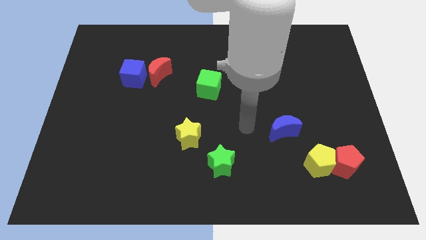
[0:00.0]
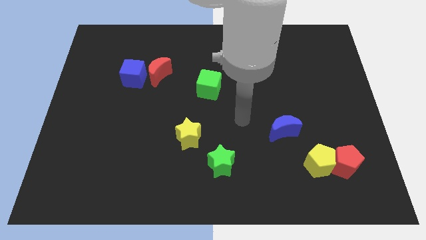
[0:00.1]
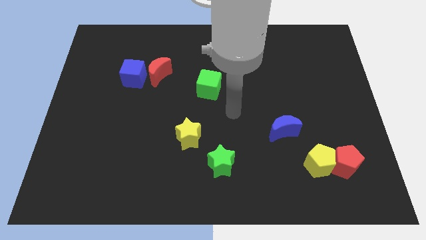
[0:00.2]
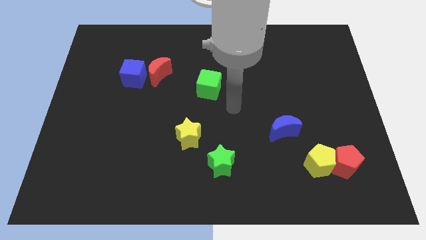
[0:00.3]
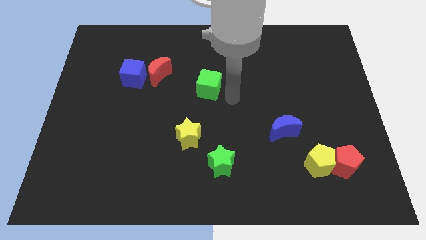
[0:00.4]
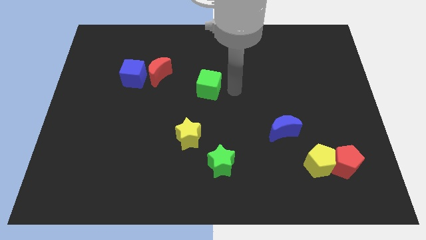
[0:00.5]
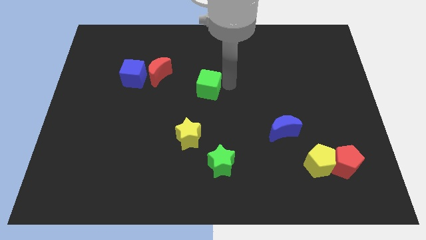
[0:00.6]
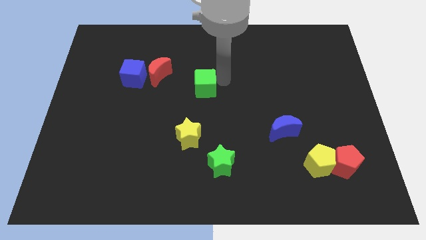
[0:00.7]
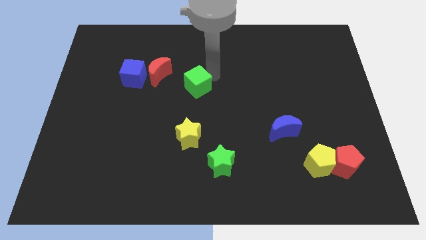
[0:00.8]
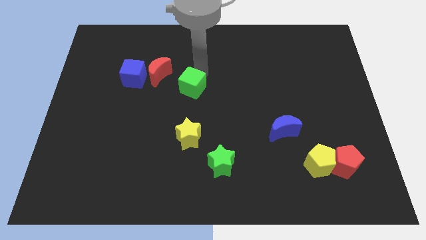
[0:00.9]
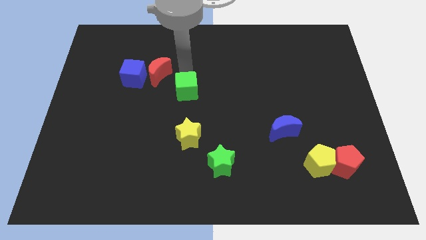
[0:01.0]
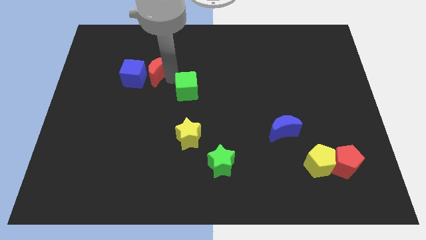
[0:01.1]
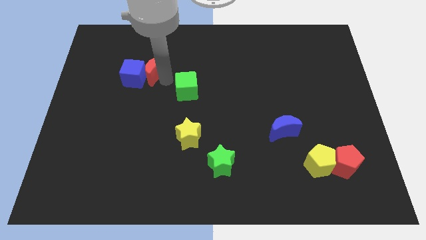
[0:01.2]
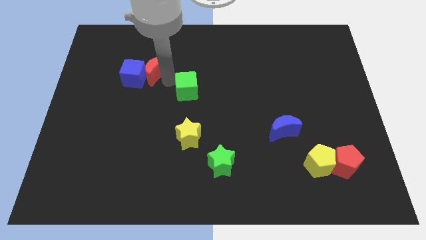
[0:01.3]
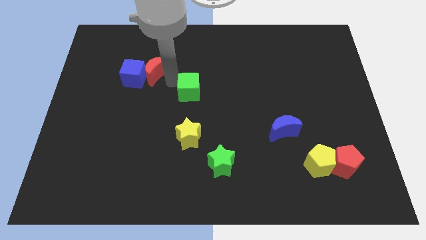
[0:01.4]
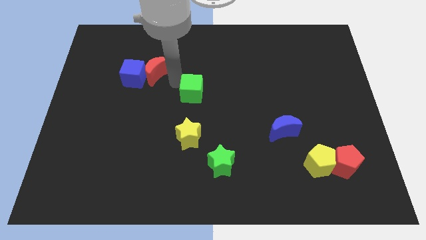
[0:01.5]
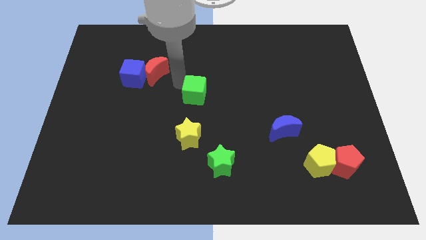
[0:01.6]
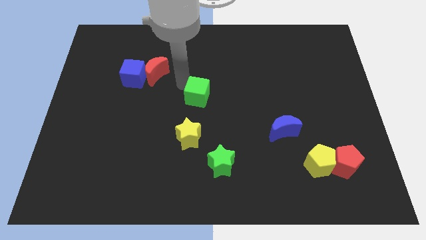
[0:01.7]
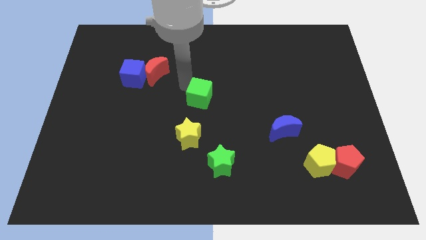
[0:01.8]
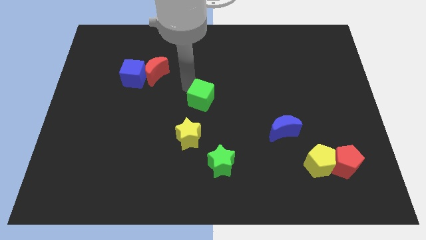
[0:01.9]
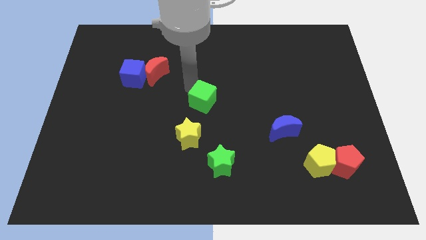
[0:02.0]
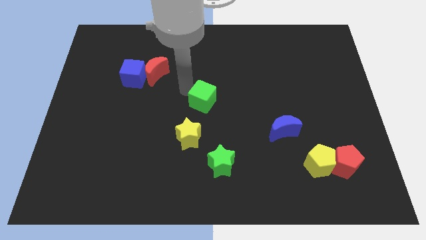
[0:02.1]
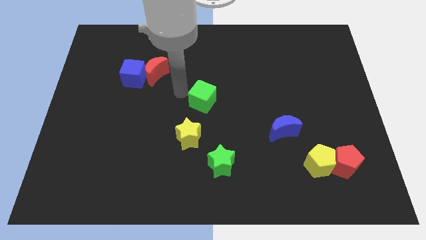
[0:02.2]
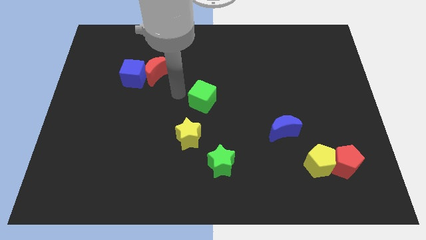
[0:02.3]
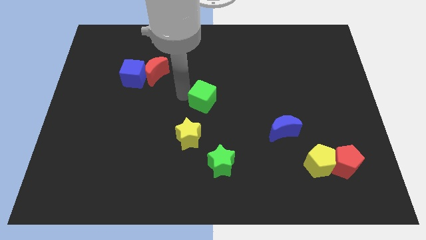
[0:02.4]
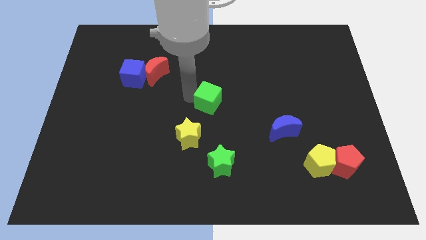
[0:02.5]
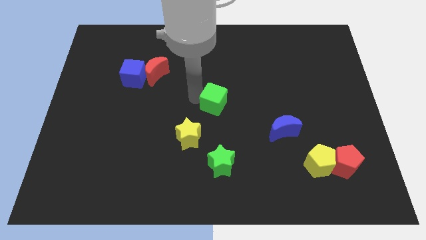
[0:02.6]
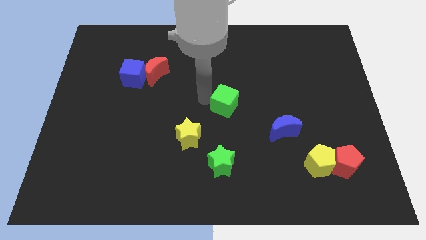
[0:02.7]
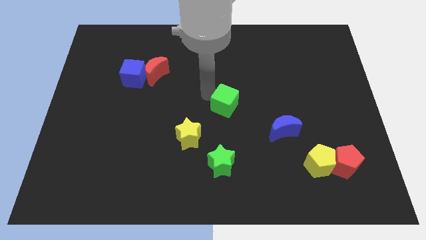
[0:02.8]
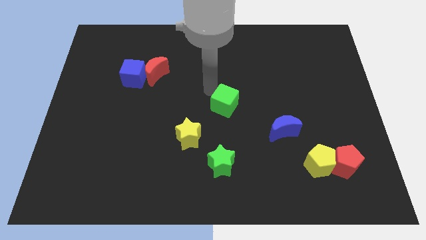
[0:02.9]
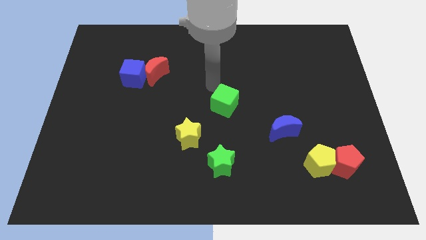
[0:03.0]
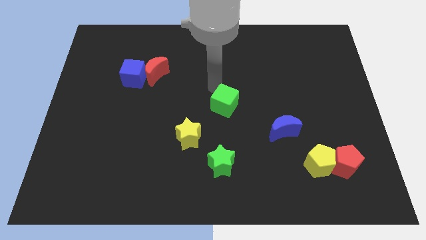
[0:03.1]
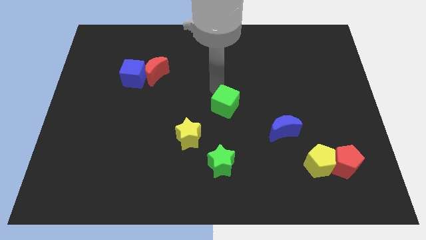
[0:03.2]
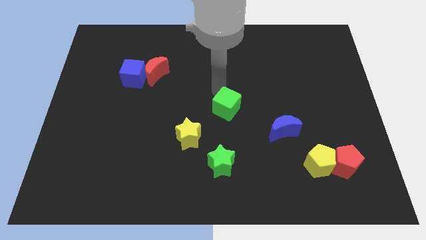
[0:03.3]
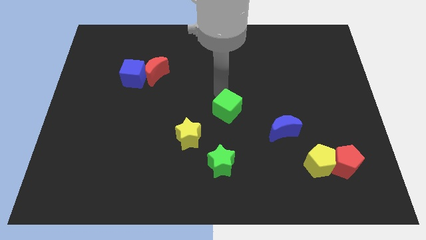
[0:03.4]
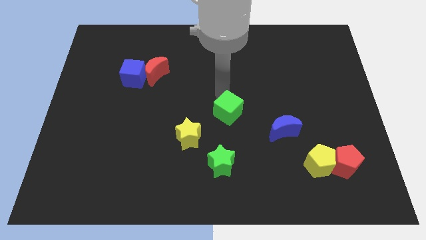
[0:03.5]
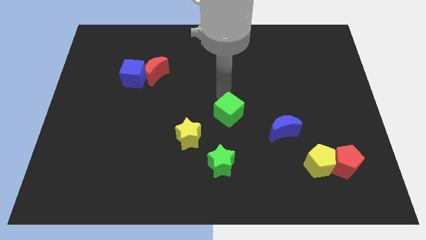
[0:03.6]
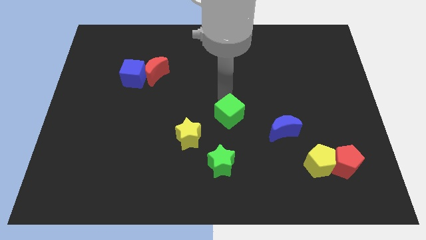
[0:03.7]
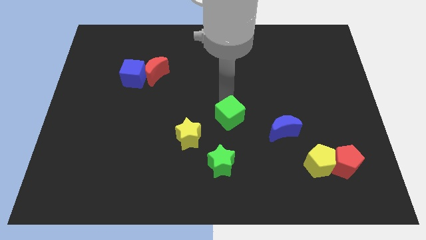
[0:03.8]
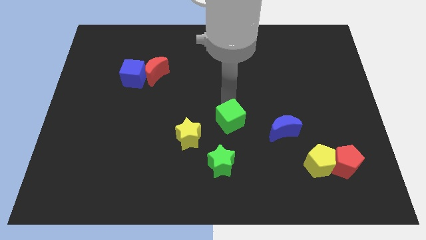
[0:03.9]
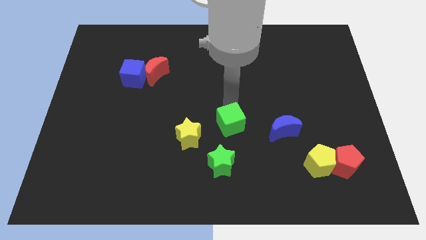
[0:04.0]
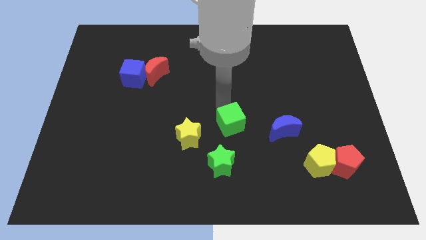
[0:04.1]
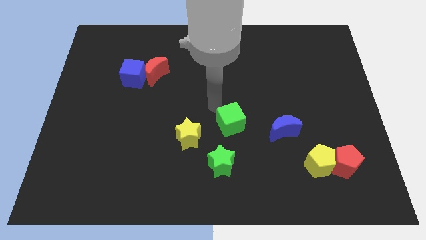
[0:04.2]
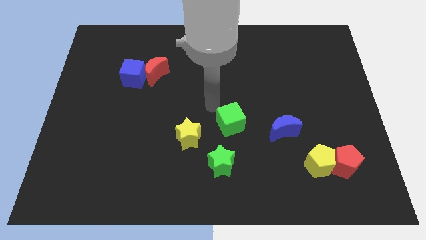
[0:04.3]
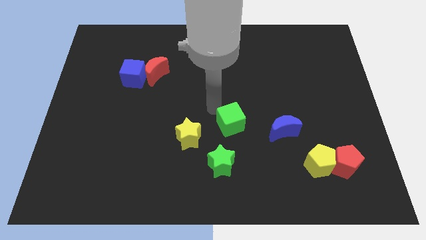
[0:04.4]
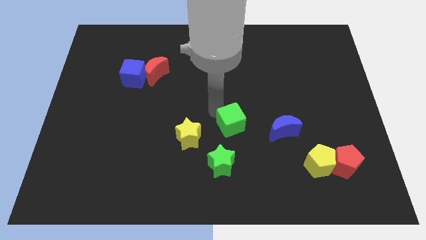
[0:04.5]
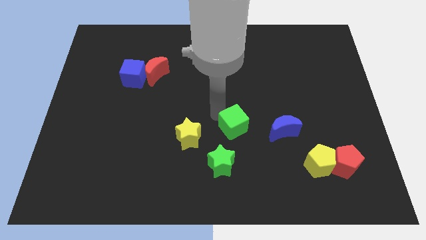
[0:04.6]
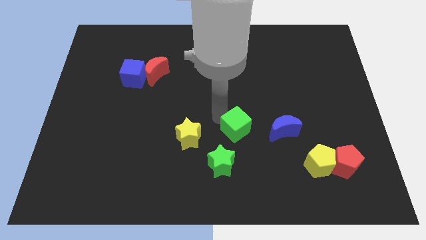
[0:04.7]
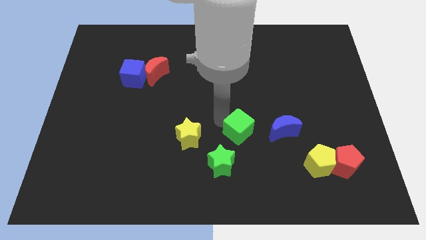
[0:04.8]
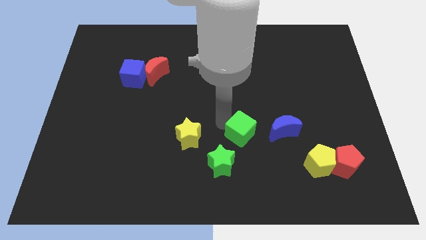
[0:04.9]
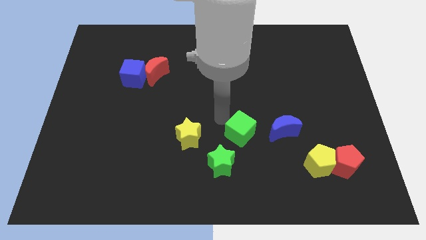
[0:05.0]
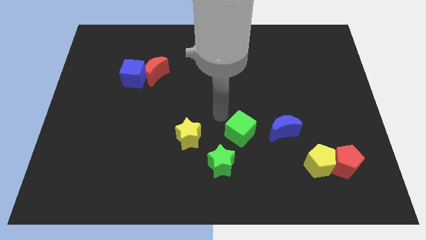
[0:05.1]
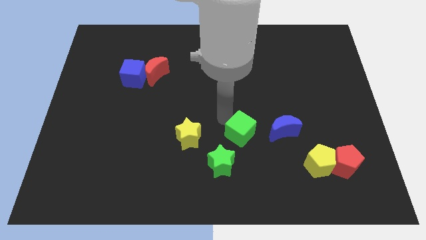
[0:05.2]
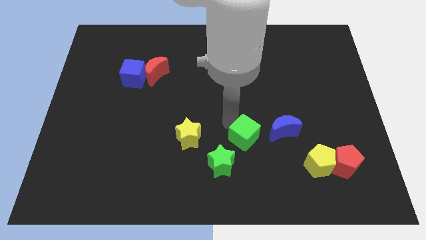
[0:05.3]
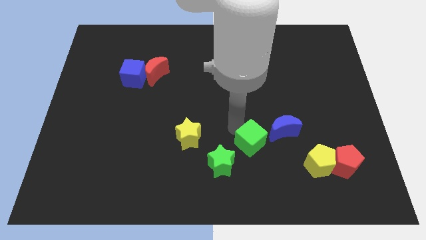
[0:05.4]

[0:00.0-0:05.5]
push the green cube to the bottom left of the blue moon

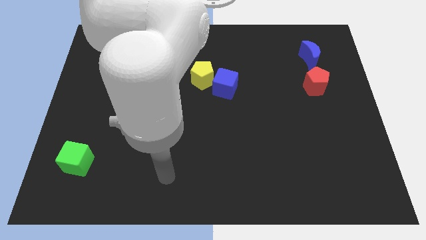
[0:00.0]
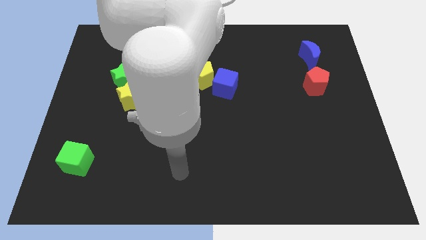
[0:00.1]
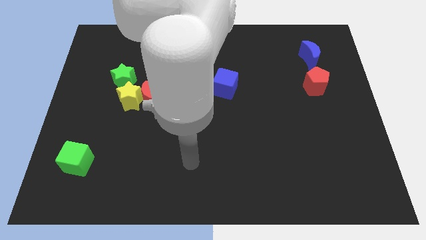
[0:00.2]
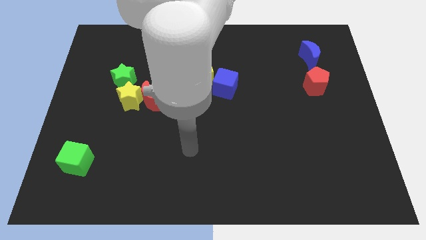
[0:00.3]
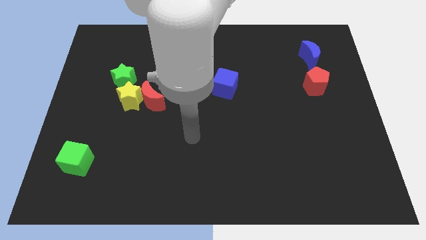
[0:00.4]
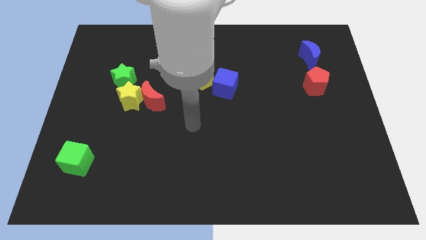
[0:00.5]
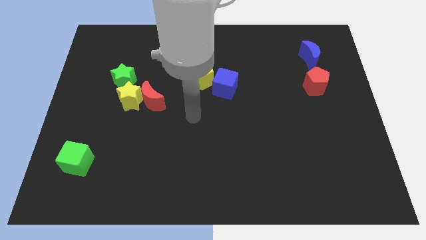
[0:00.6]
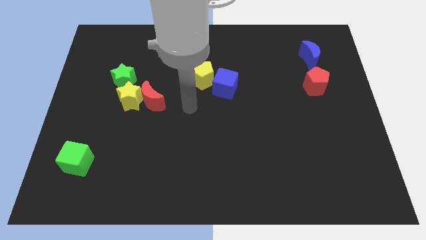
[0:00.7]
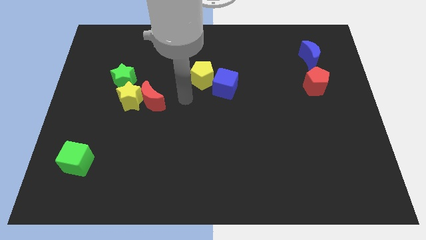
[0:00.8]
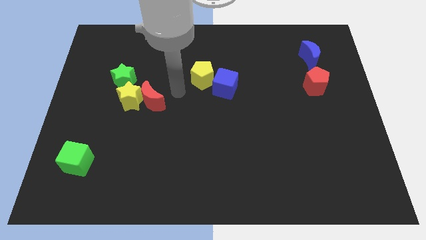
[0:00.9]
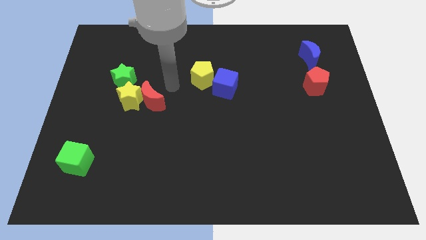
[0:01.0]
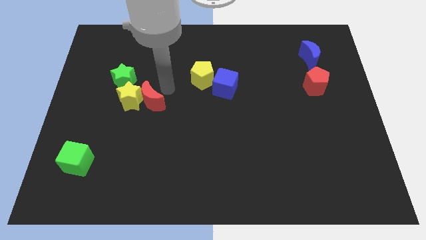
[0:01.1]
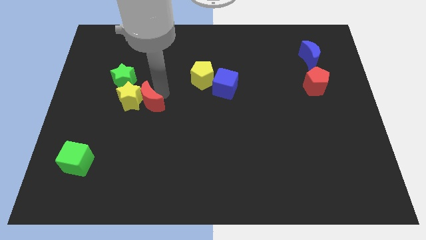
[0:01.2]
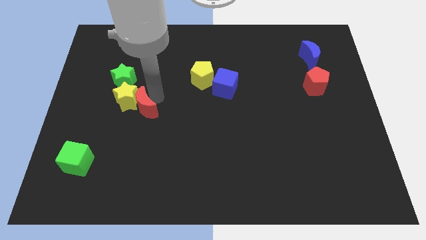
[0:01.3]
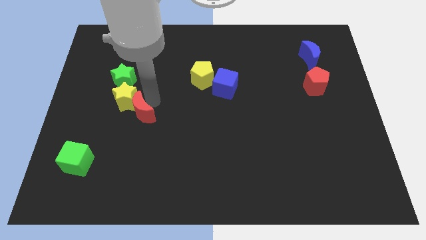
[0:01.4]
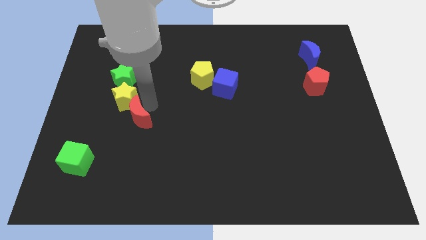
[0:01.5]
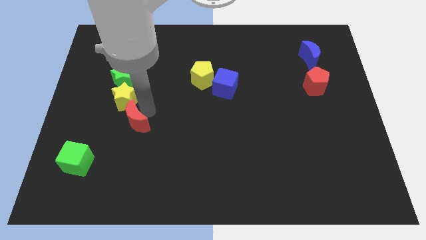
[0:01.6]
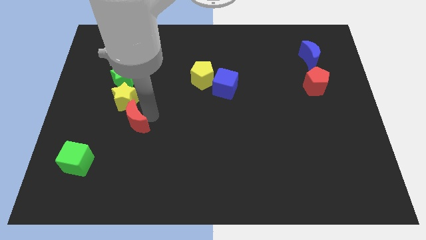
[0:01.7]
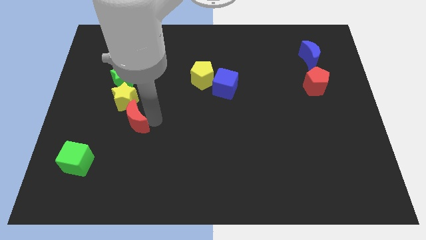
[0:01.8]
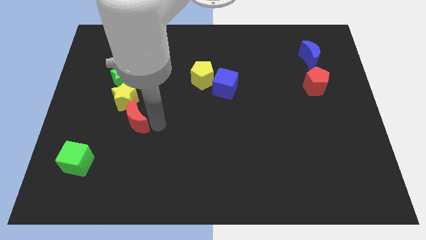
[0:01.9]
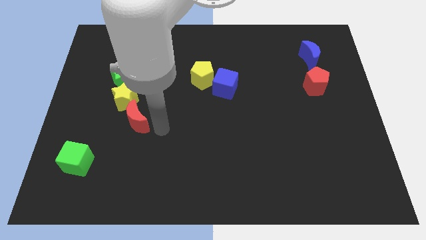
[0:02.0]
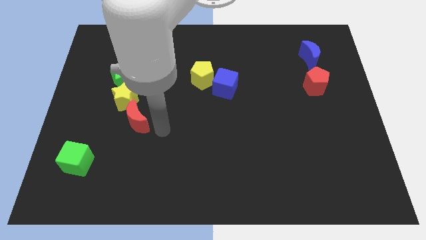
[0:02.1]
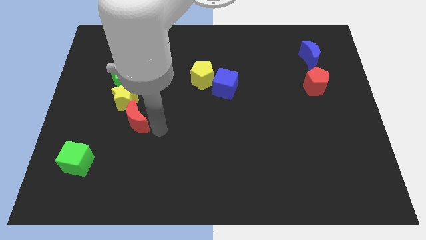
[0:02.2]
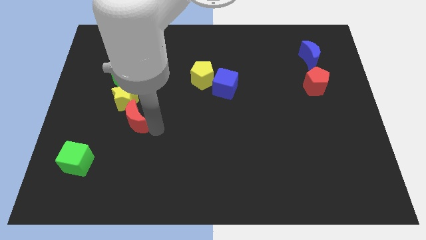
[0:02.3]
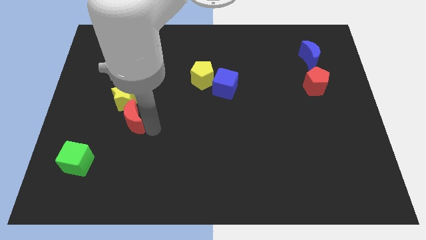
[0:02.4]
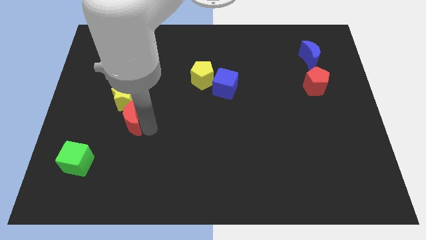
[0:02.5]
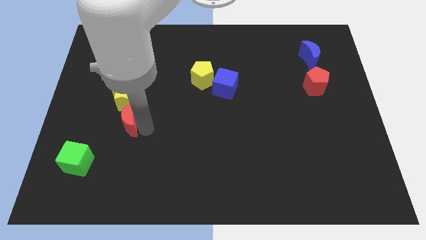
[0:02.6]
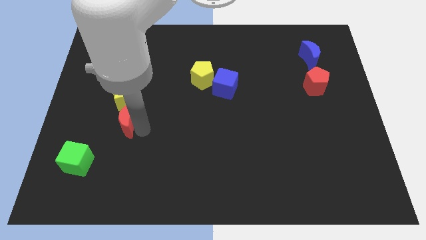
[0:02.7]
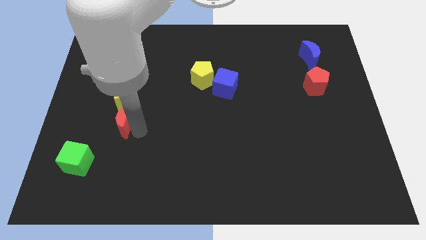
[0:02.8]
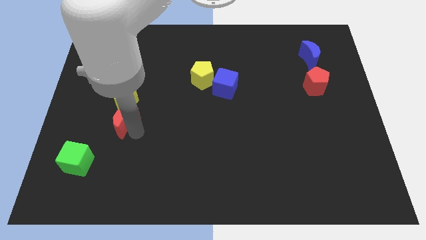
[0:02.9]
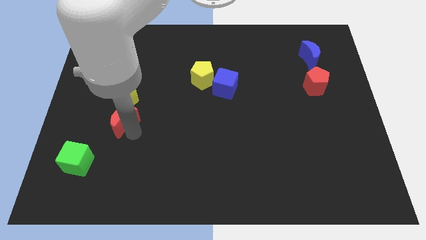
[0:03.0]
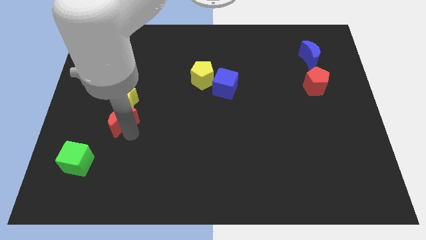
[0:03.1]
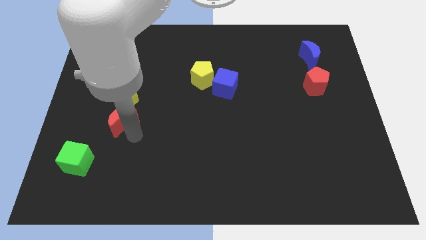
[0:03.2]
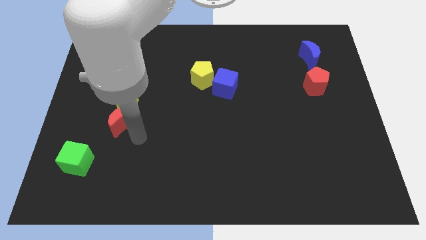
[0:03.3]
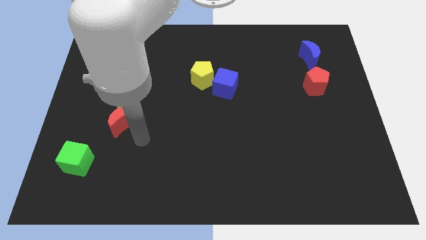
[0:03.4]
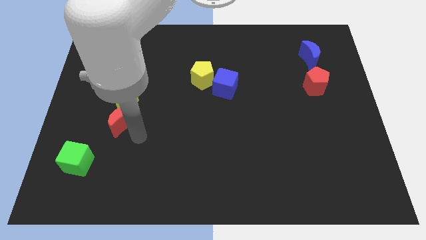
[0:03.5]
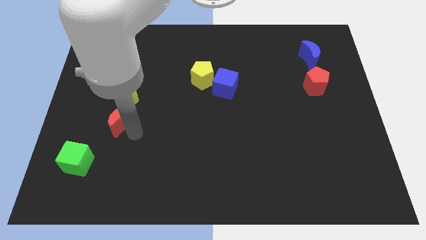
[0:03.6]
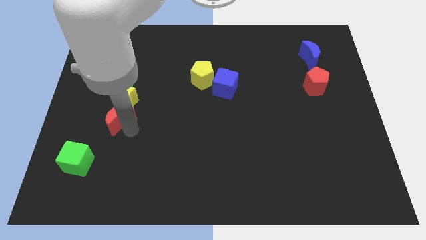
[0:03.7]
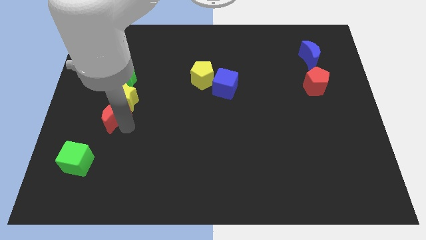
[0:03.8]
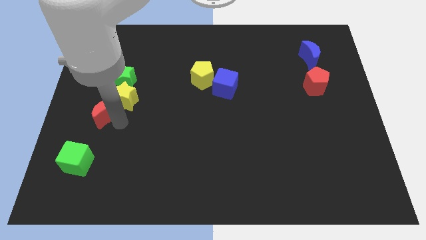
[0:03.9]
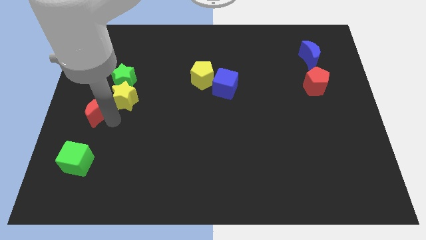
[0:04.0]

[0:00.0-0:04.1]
put the red moon to the bottom left of the green star
